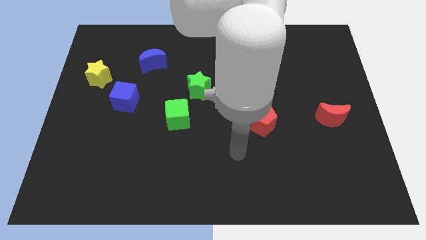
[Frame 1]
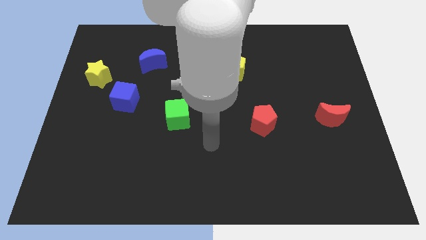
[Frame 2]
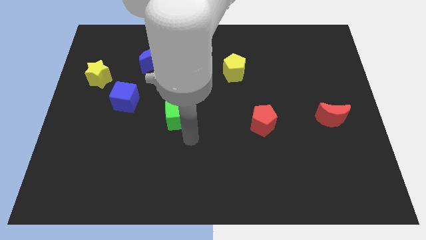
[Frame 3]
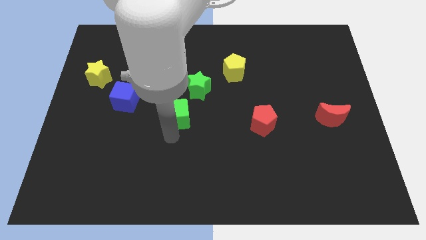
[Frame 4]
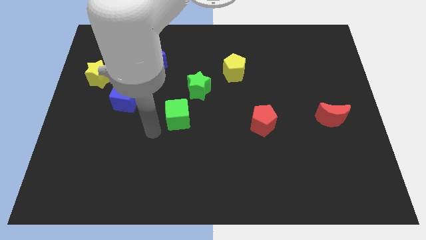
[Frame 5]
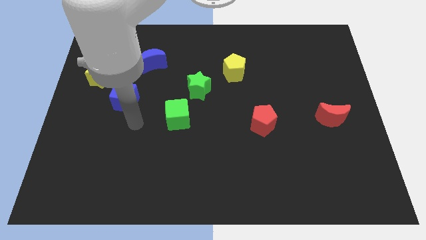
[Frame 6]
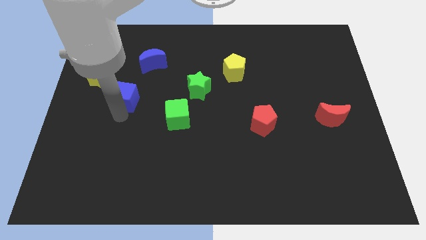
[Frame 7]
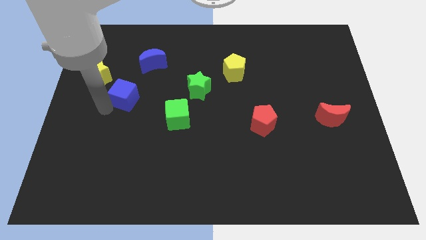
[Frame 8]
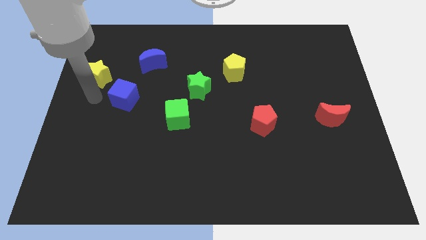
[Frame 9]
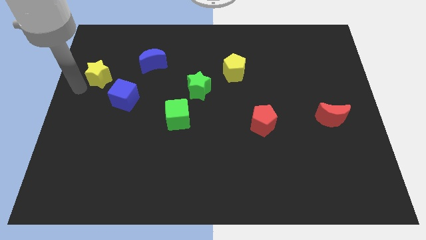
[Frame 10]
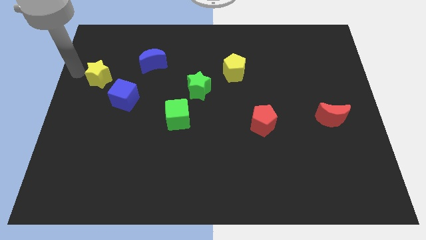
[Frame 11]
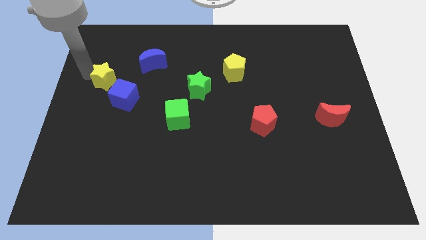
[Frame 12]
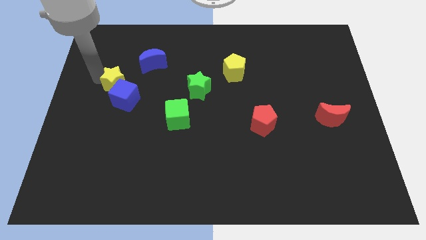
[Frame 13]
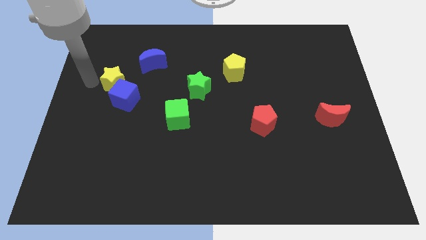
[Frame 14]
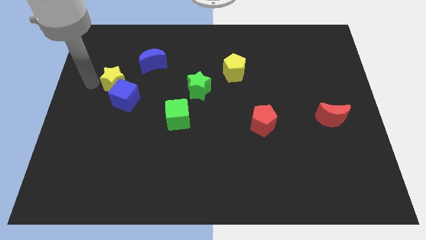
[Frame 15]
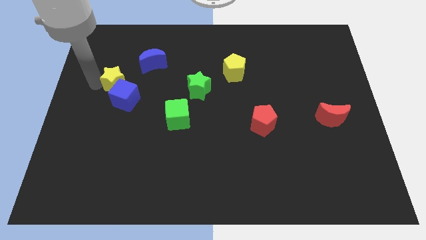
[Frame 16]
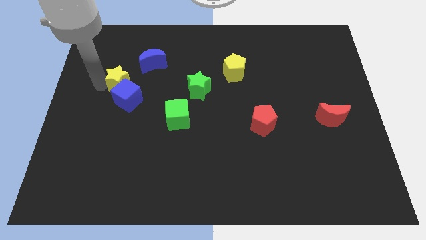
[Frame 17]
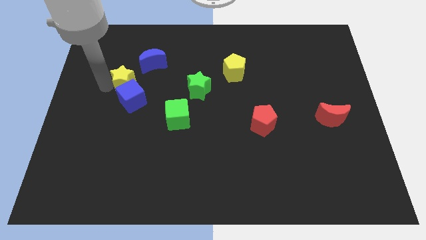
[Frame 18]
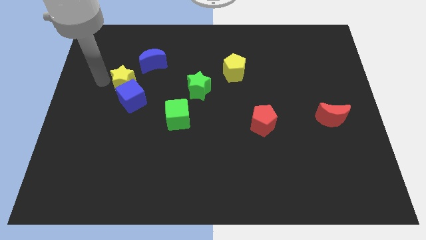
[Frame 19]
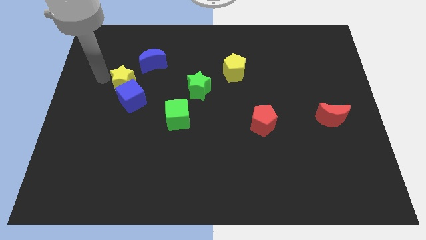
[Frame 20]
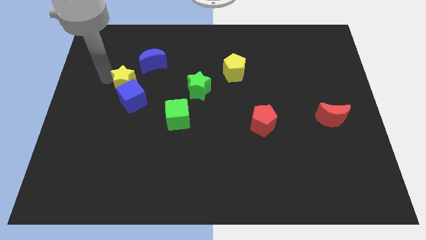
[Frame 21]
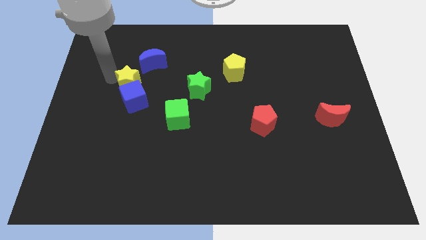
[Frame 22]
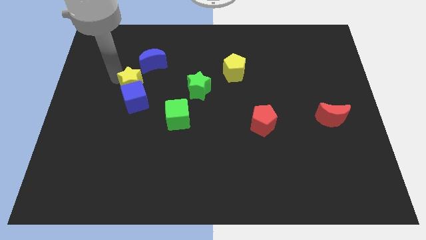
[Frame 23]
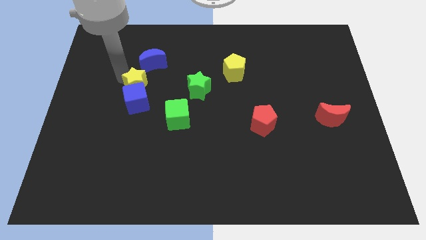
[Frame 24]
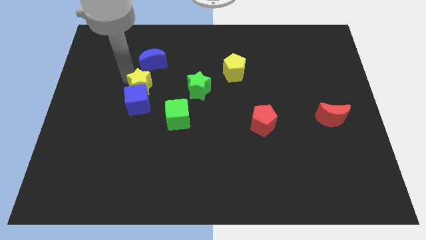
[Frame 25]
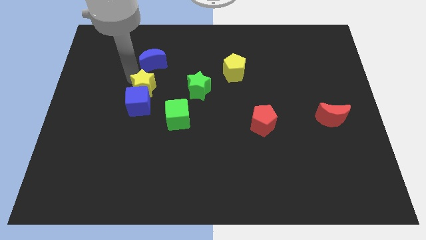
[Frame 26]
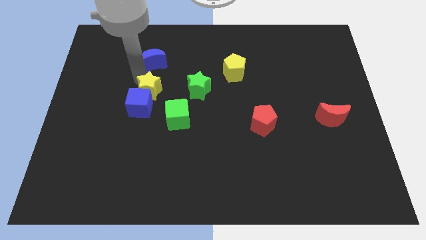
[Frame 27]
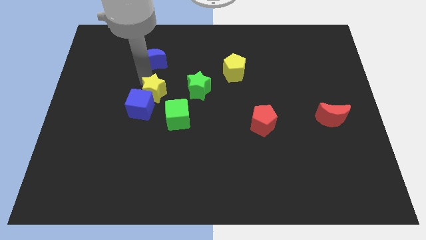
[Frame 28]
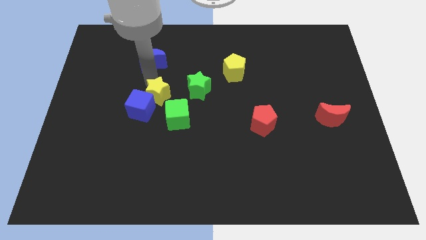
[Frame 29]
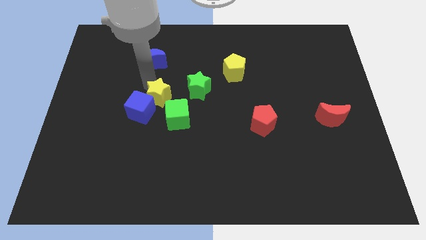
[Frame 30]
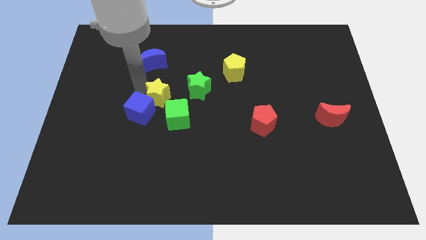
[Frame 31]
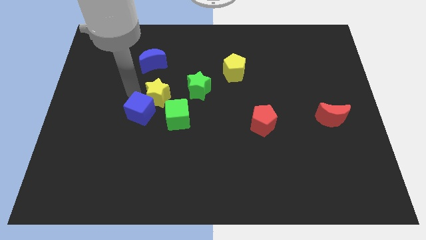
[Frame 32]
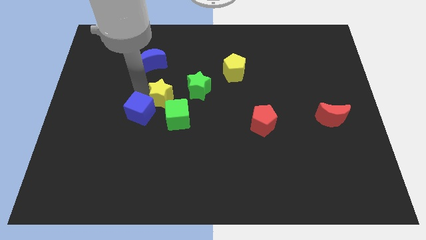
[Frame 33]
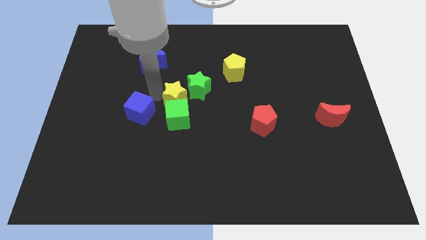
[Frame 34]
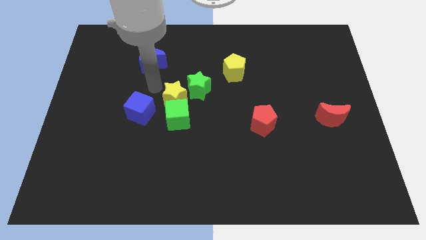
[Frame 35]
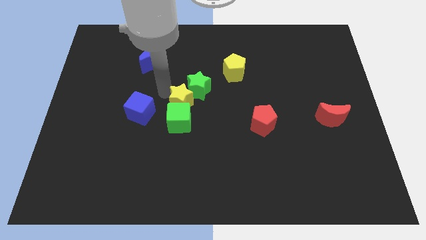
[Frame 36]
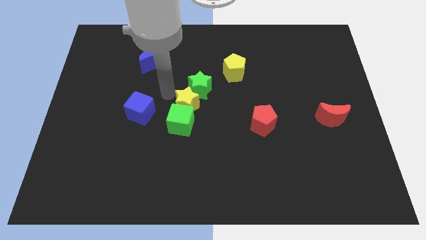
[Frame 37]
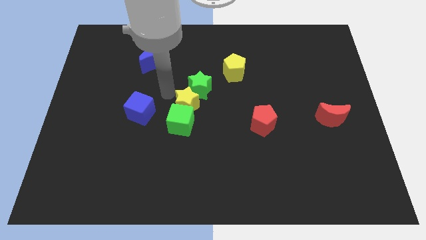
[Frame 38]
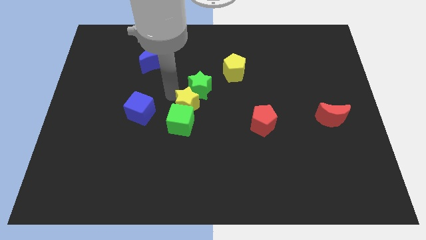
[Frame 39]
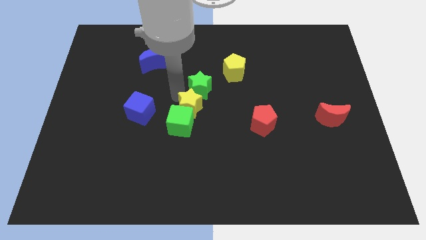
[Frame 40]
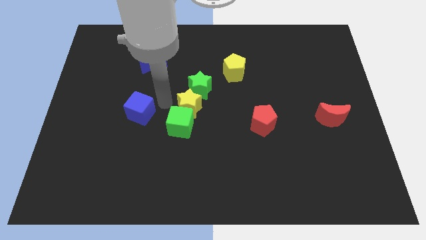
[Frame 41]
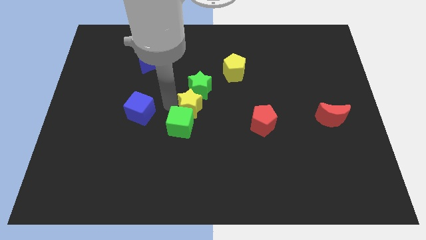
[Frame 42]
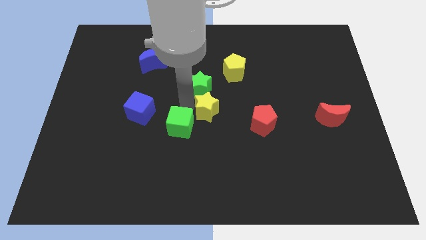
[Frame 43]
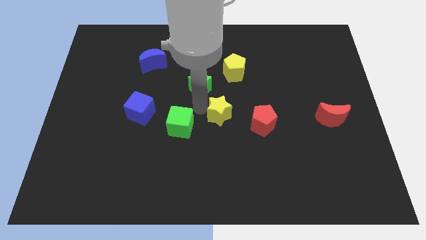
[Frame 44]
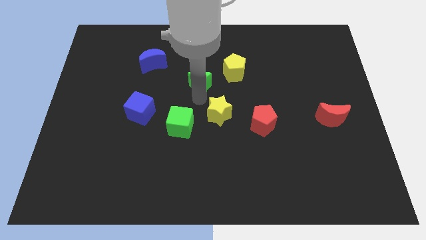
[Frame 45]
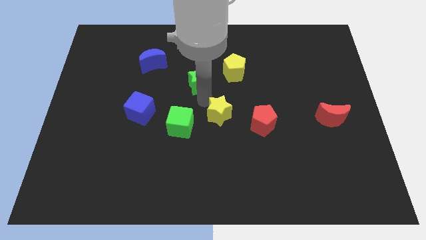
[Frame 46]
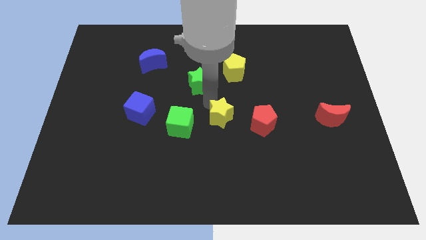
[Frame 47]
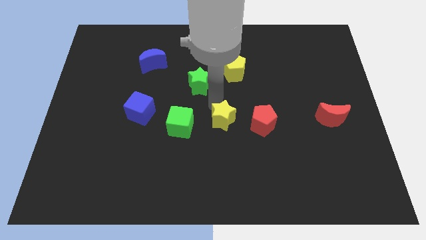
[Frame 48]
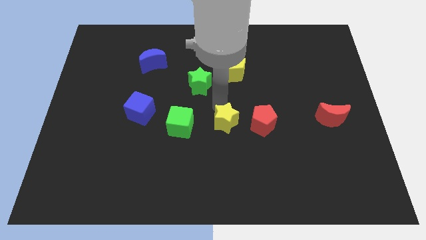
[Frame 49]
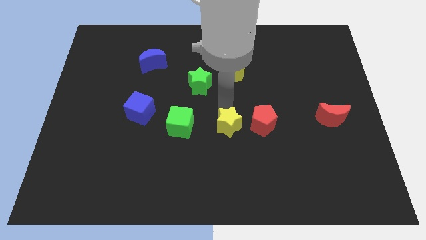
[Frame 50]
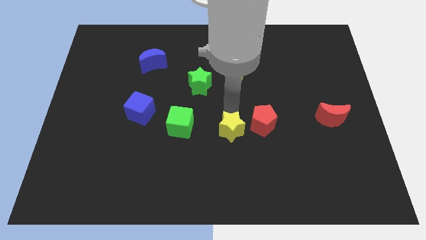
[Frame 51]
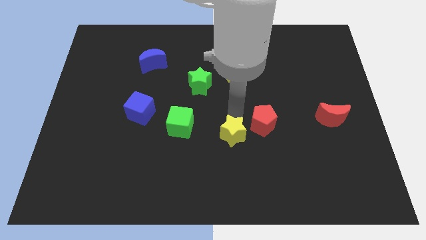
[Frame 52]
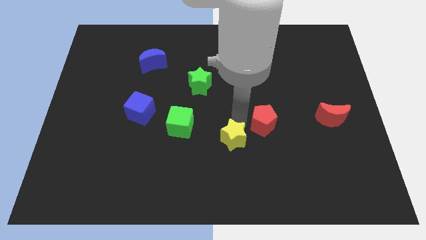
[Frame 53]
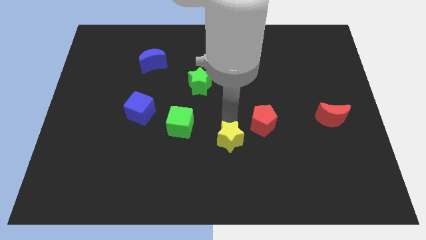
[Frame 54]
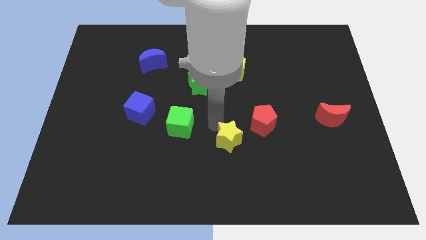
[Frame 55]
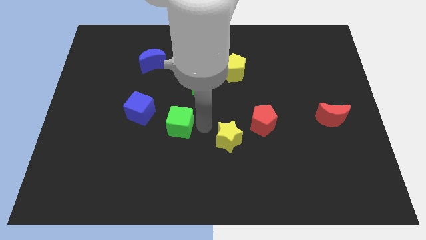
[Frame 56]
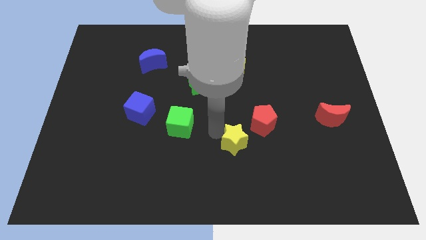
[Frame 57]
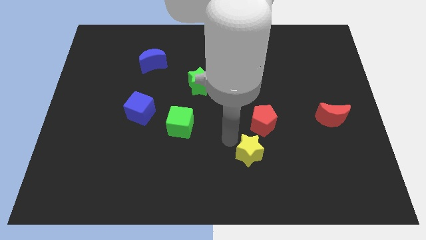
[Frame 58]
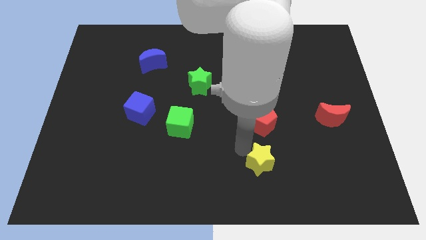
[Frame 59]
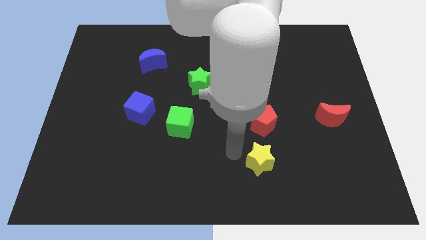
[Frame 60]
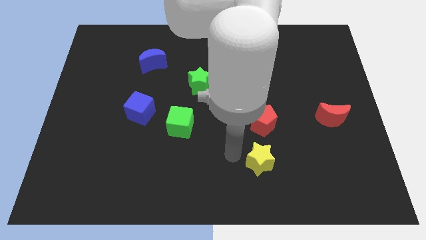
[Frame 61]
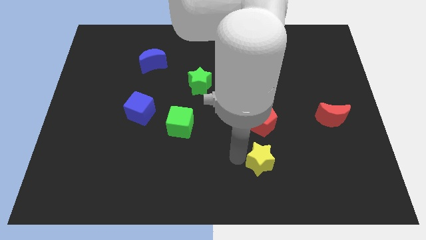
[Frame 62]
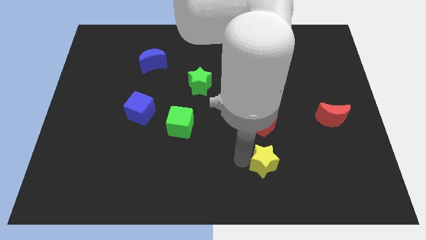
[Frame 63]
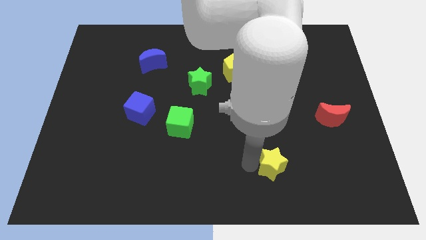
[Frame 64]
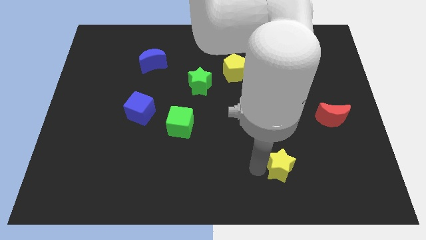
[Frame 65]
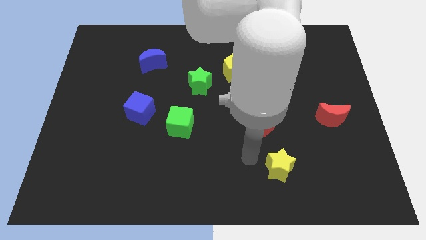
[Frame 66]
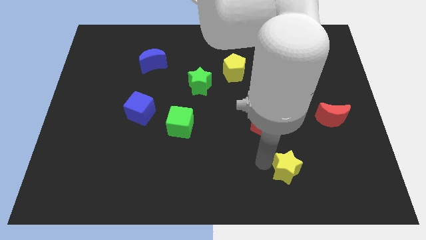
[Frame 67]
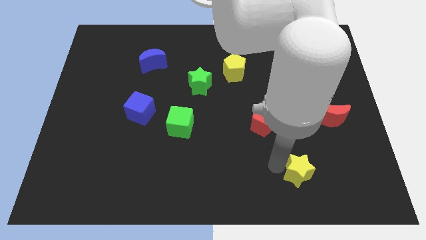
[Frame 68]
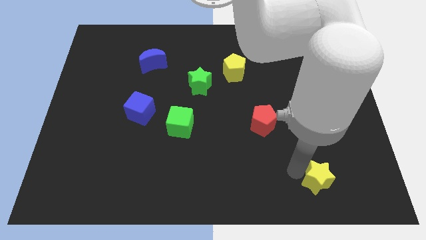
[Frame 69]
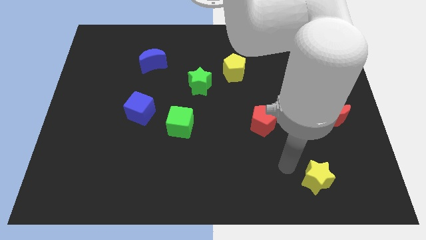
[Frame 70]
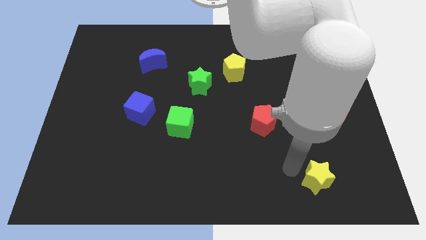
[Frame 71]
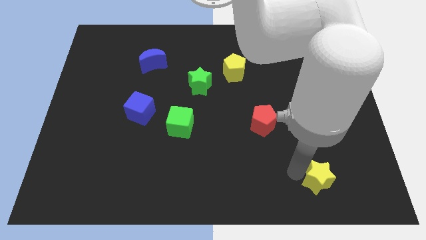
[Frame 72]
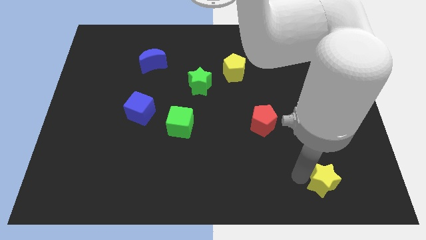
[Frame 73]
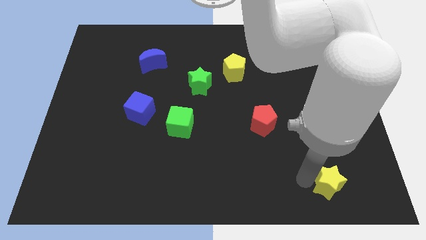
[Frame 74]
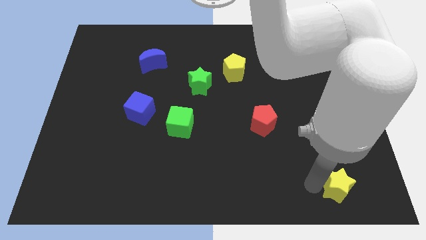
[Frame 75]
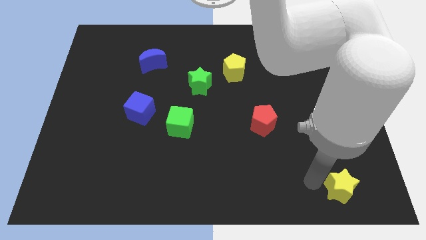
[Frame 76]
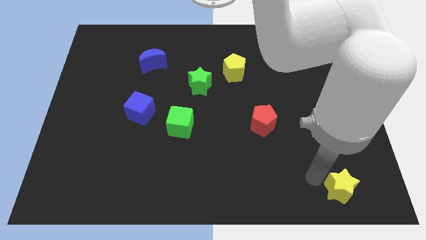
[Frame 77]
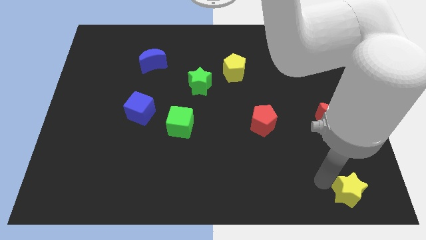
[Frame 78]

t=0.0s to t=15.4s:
slide the yellow star to the lower right corner
